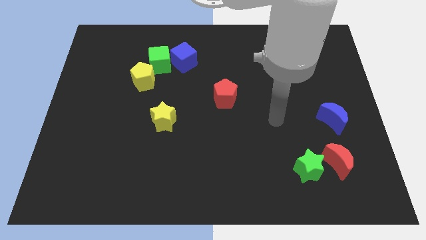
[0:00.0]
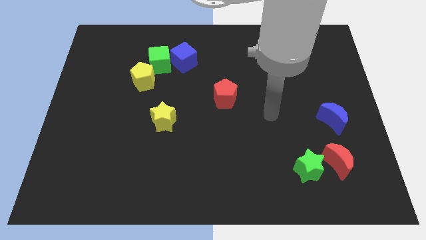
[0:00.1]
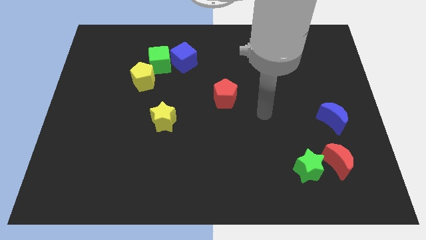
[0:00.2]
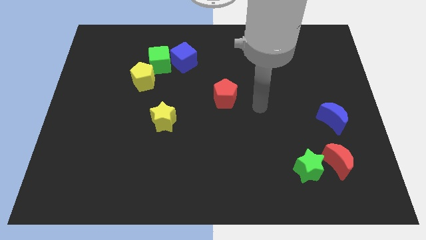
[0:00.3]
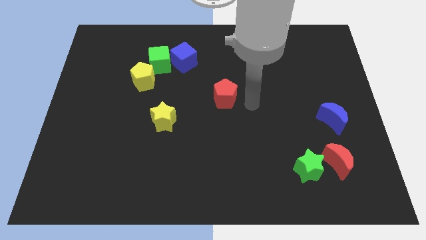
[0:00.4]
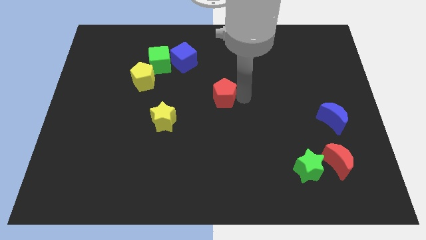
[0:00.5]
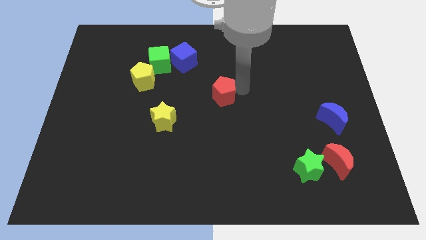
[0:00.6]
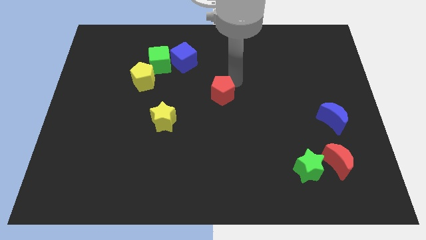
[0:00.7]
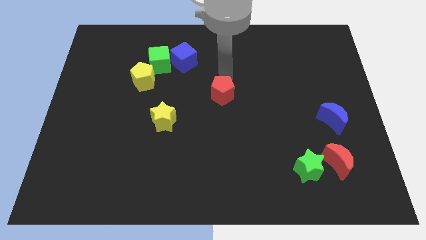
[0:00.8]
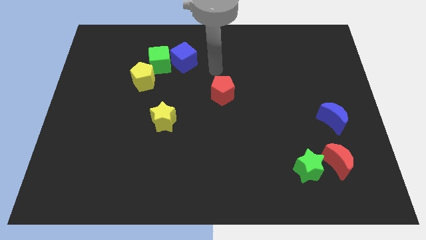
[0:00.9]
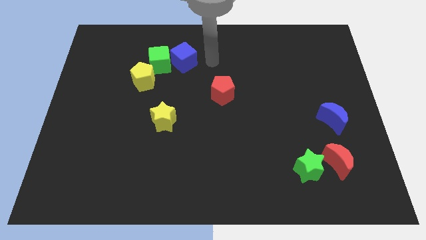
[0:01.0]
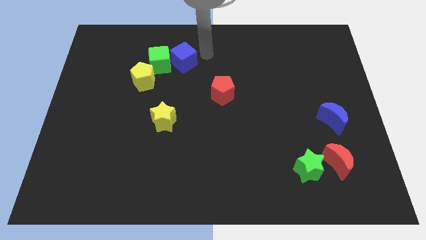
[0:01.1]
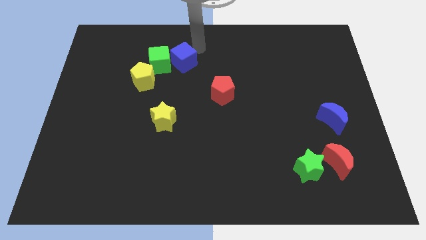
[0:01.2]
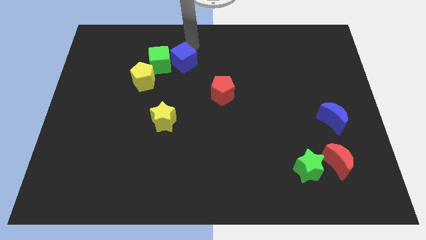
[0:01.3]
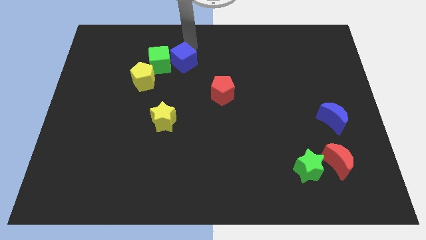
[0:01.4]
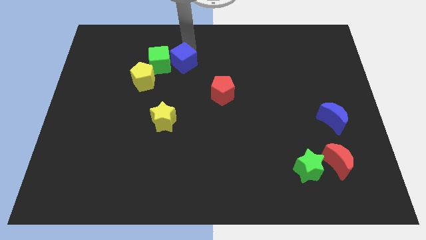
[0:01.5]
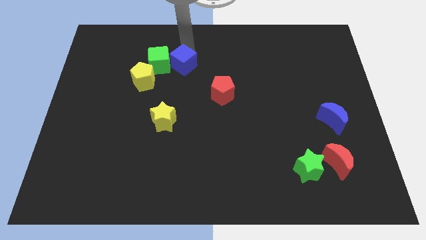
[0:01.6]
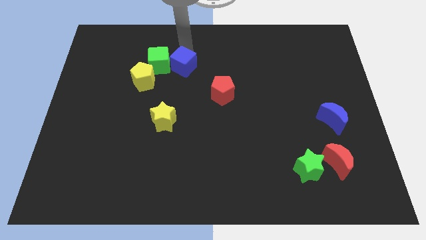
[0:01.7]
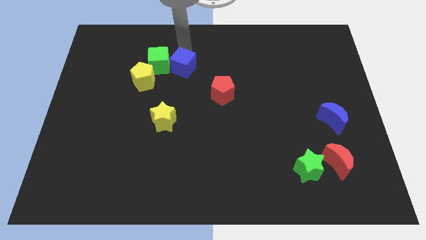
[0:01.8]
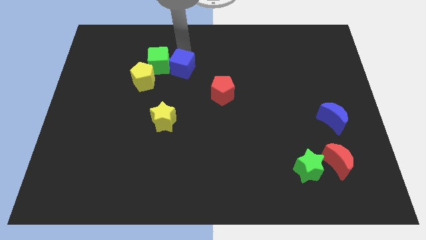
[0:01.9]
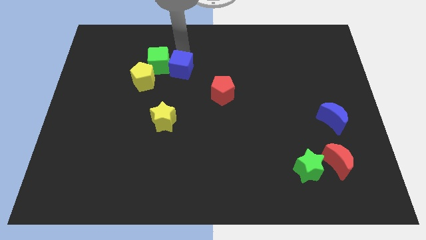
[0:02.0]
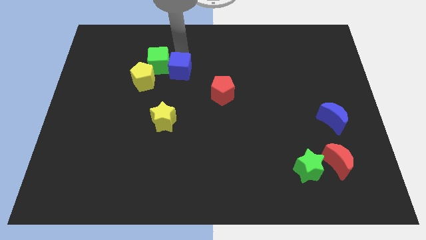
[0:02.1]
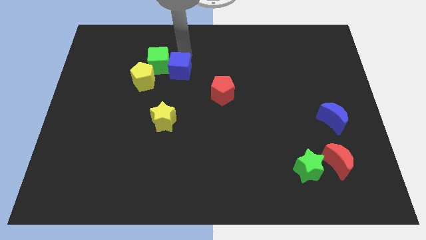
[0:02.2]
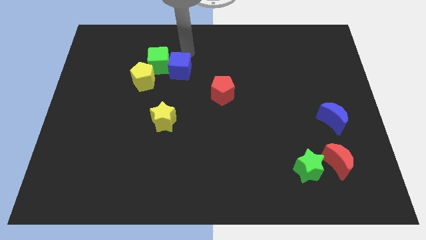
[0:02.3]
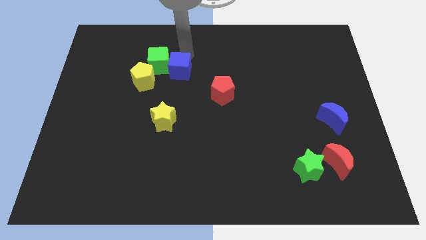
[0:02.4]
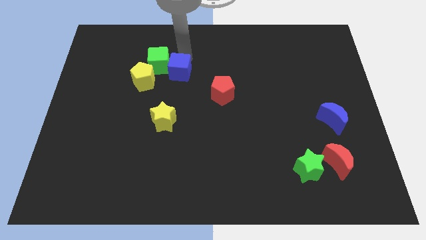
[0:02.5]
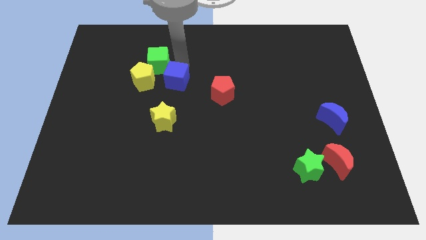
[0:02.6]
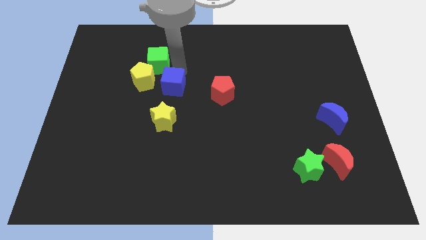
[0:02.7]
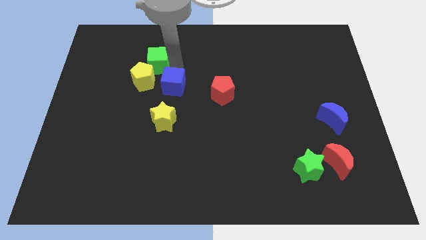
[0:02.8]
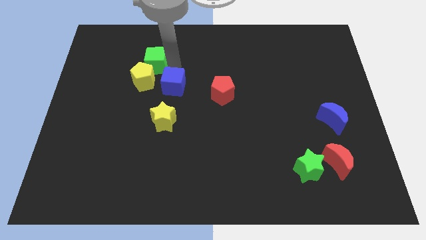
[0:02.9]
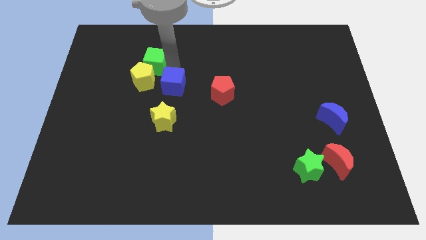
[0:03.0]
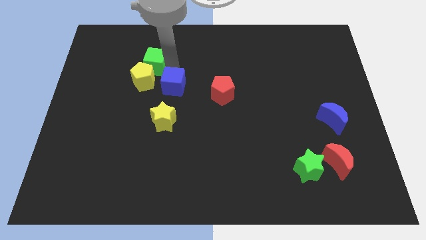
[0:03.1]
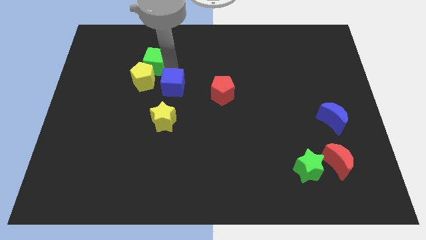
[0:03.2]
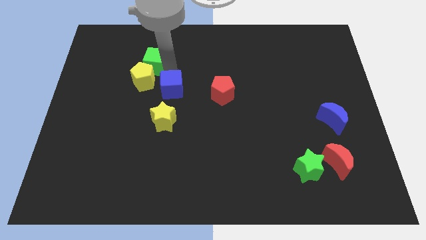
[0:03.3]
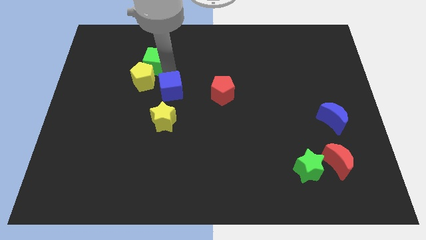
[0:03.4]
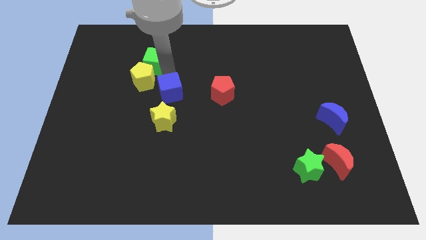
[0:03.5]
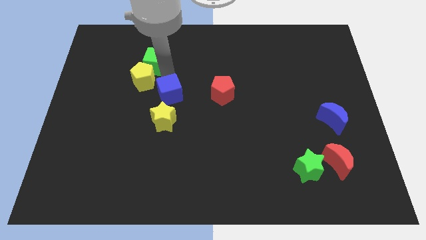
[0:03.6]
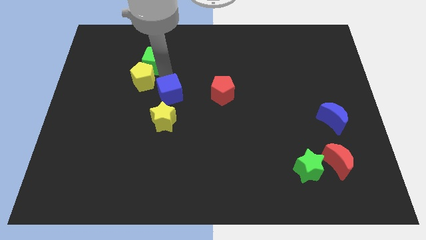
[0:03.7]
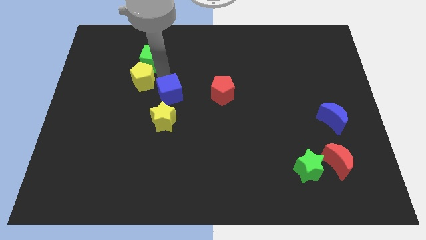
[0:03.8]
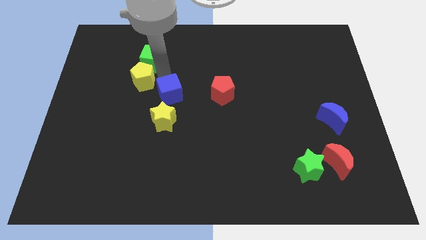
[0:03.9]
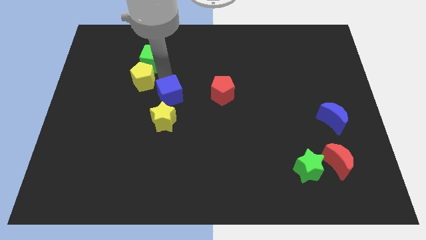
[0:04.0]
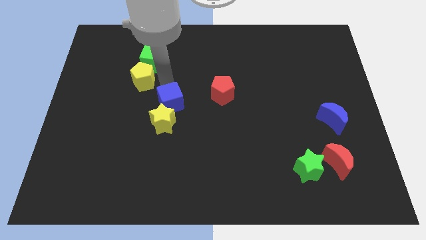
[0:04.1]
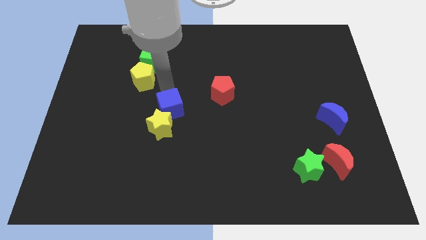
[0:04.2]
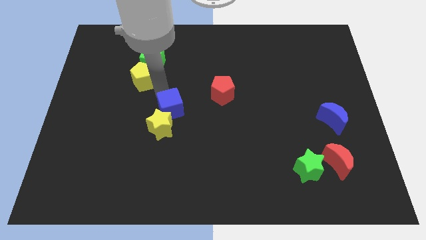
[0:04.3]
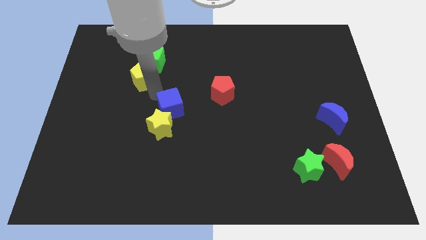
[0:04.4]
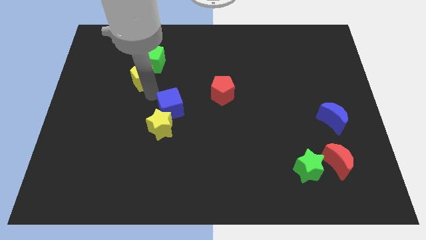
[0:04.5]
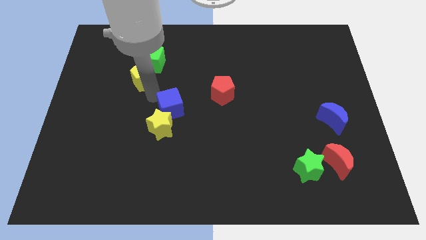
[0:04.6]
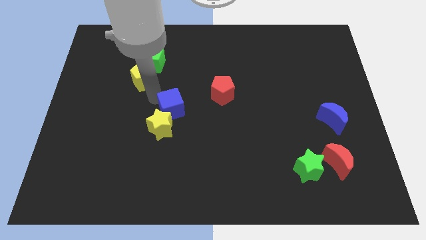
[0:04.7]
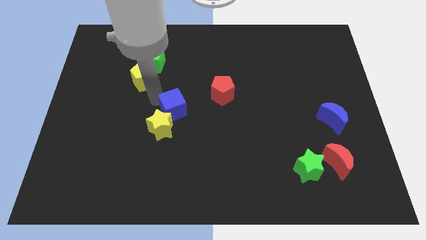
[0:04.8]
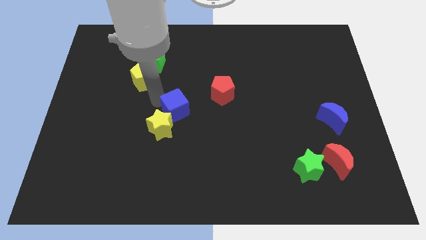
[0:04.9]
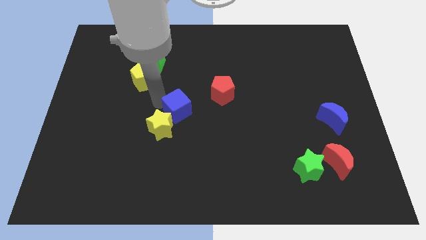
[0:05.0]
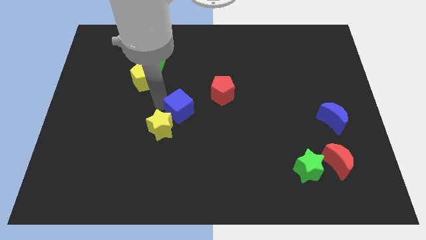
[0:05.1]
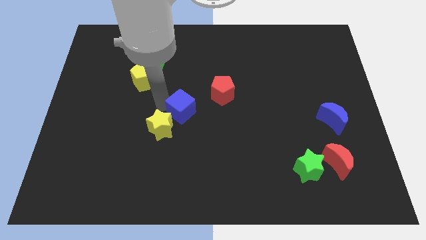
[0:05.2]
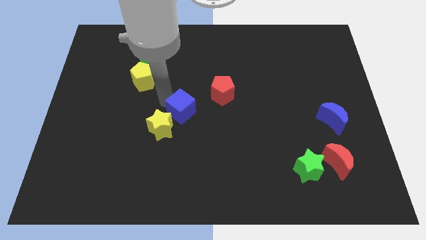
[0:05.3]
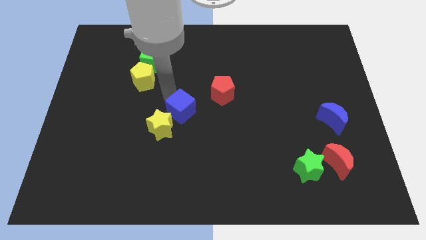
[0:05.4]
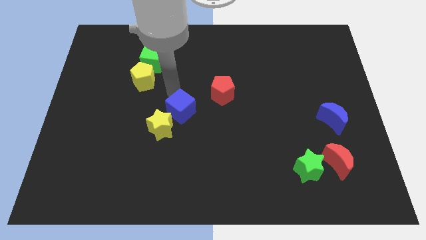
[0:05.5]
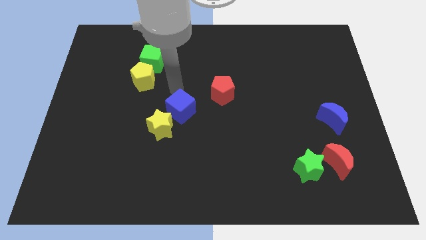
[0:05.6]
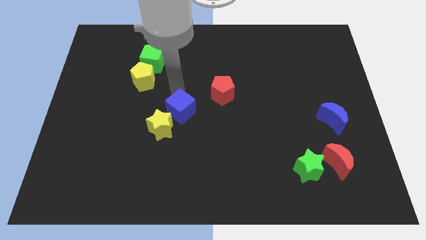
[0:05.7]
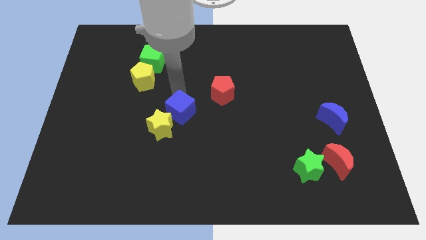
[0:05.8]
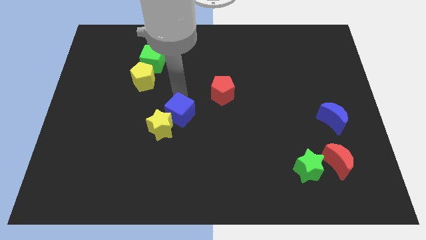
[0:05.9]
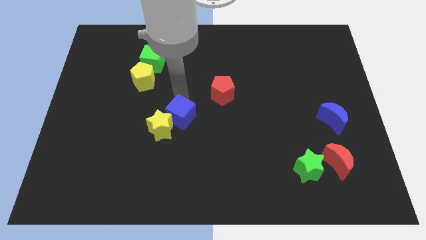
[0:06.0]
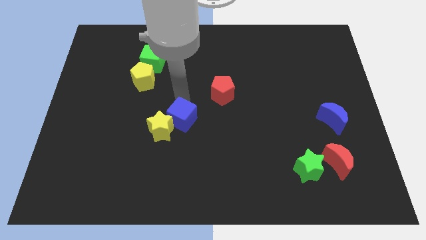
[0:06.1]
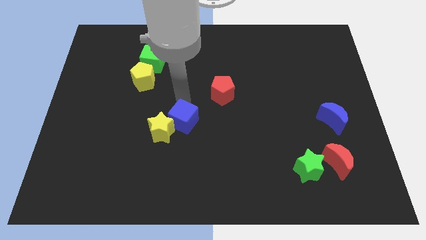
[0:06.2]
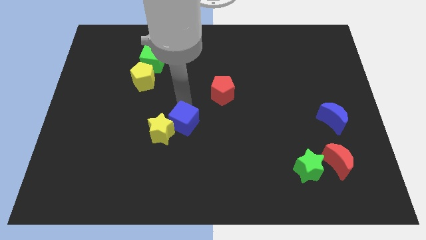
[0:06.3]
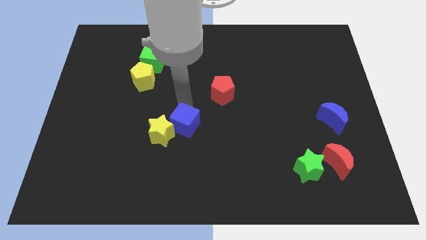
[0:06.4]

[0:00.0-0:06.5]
push the blue cube down

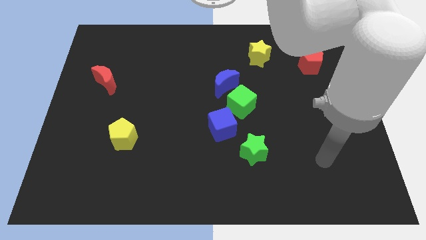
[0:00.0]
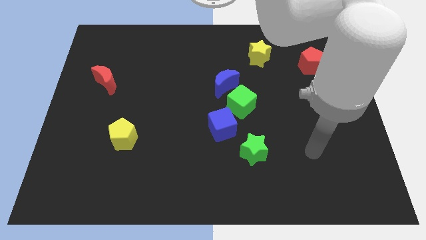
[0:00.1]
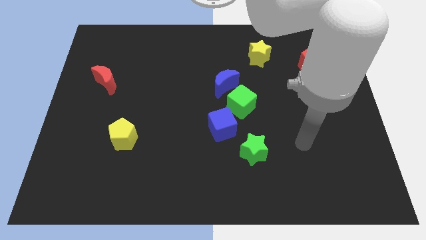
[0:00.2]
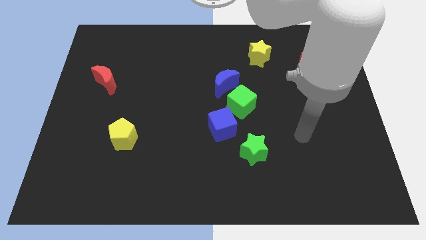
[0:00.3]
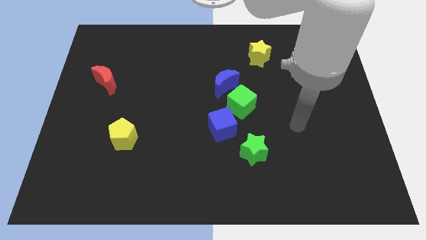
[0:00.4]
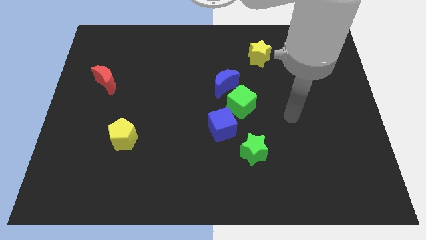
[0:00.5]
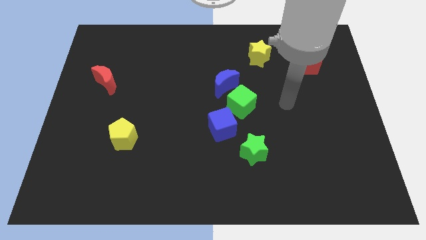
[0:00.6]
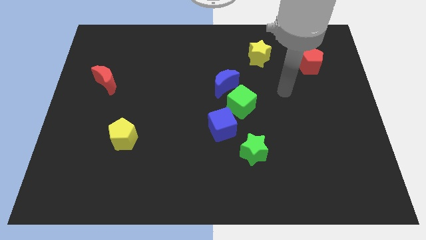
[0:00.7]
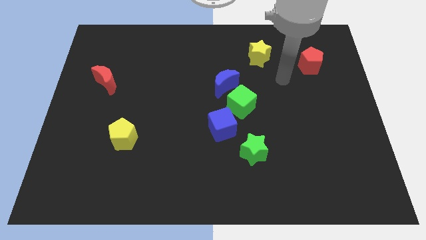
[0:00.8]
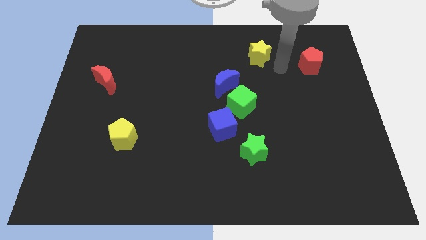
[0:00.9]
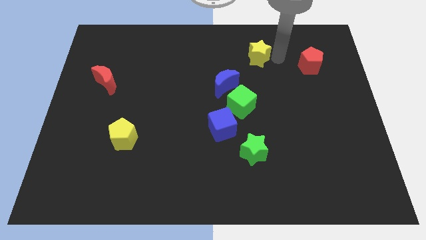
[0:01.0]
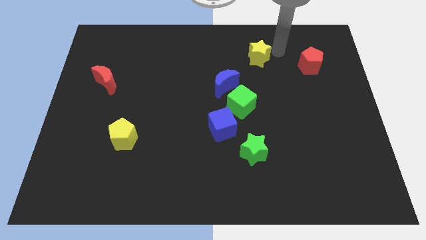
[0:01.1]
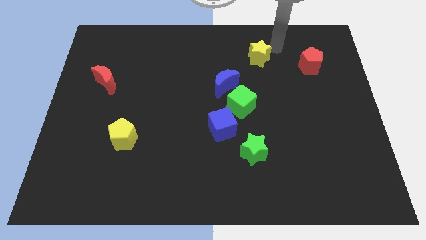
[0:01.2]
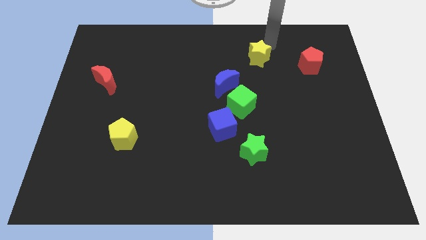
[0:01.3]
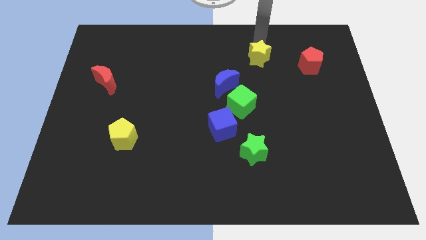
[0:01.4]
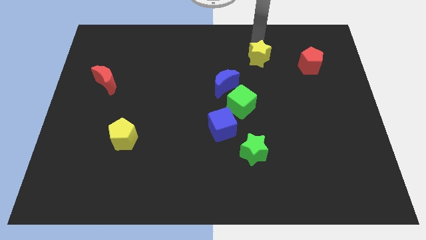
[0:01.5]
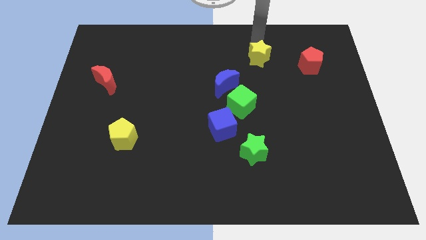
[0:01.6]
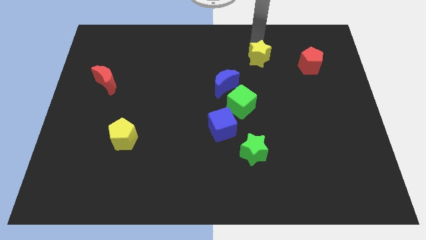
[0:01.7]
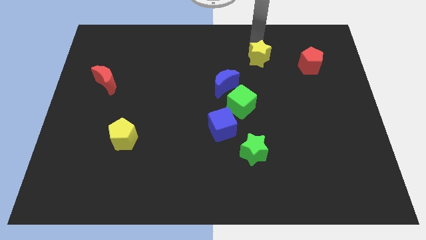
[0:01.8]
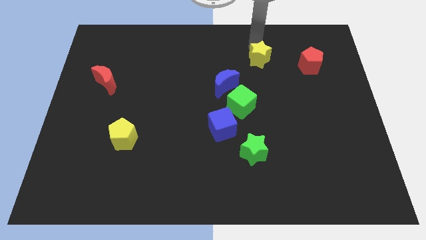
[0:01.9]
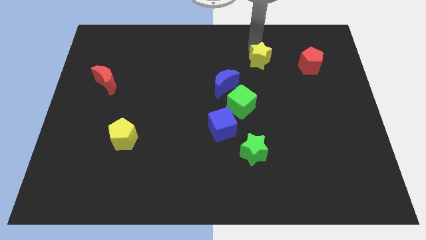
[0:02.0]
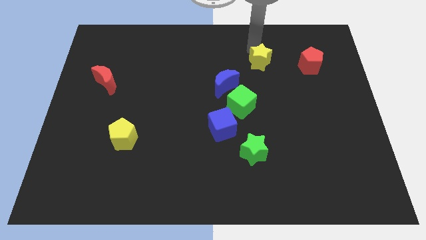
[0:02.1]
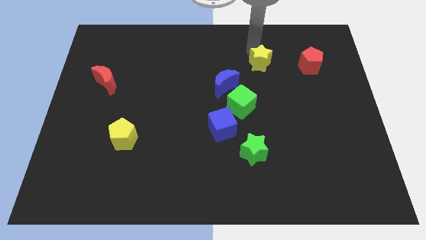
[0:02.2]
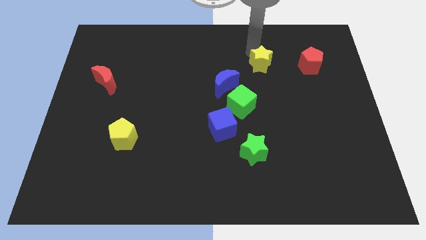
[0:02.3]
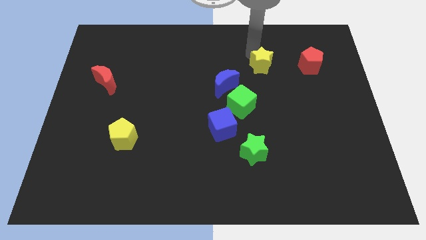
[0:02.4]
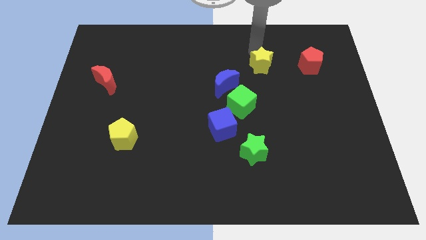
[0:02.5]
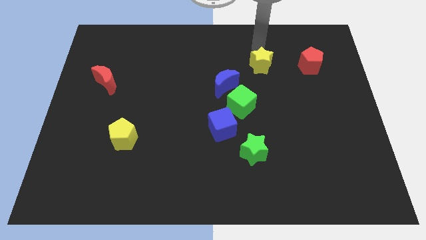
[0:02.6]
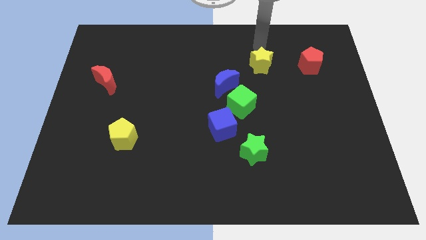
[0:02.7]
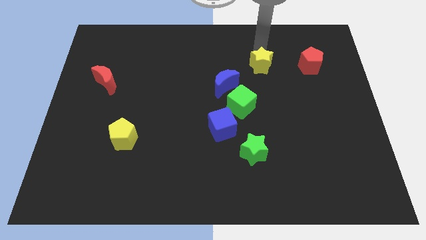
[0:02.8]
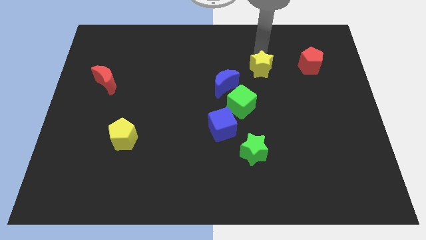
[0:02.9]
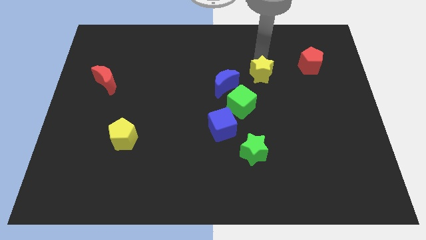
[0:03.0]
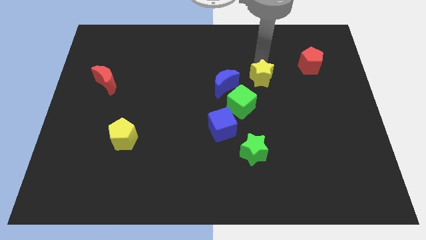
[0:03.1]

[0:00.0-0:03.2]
slightly push the yellow star downwards
